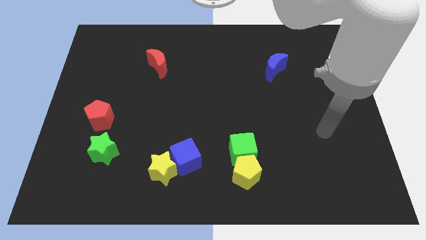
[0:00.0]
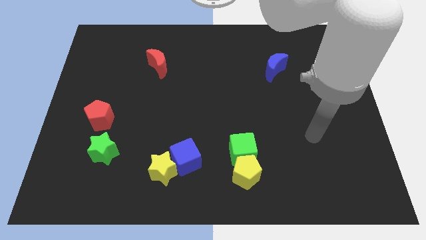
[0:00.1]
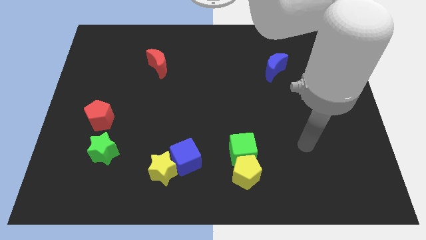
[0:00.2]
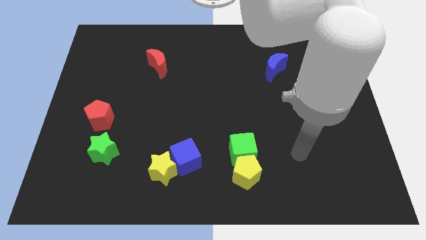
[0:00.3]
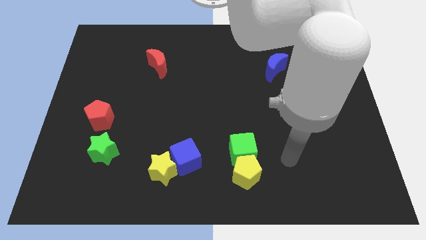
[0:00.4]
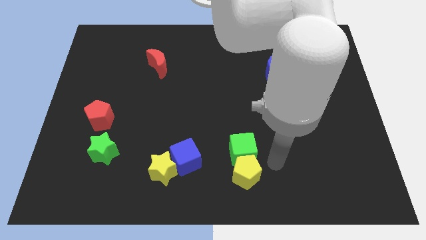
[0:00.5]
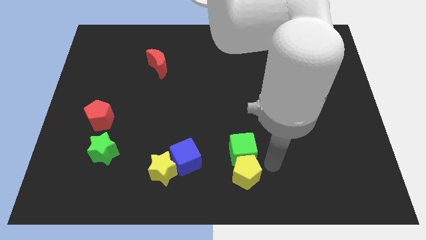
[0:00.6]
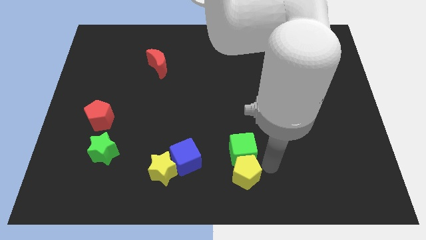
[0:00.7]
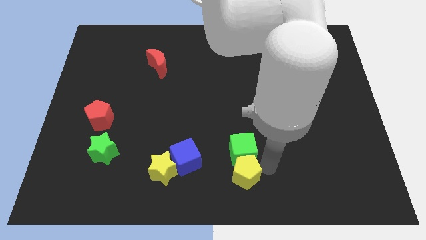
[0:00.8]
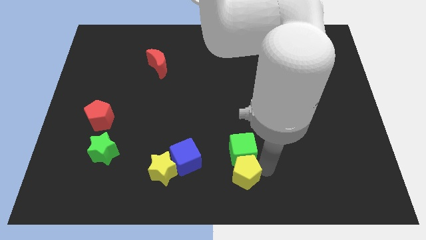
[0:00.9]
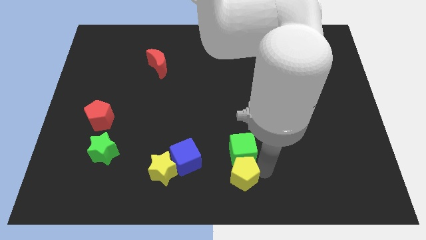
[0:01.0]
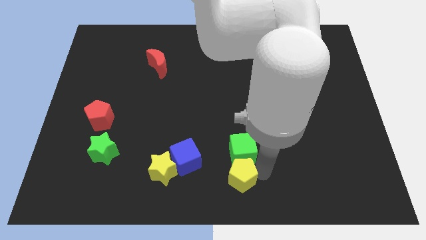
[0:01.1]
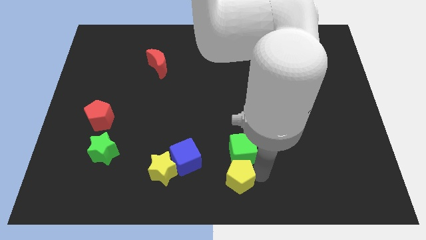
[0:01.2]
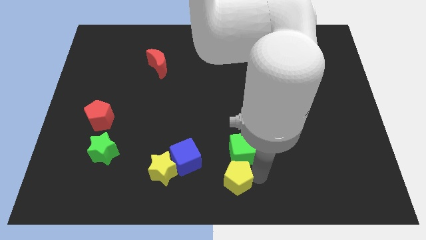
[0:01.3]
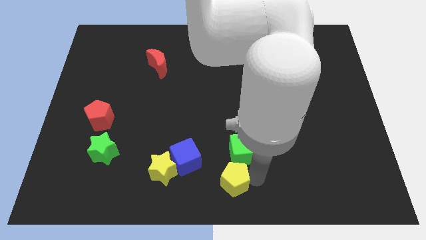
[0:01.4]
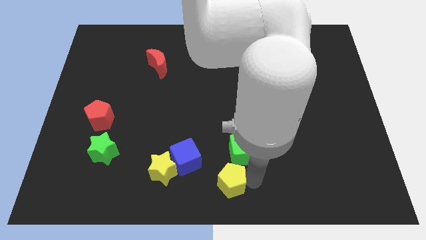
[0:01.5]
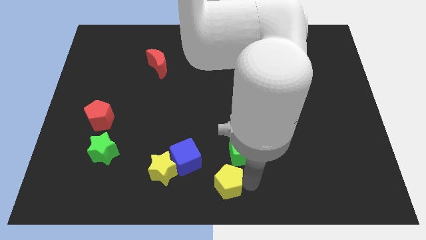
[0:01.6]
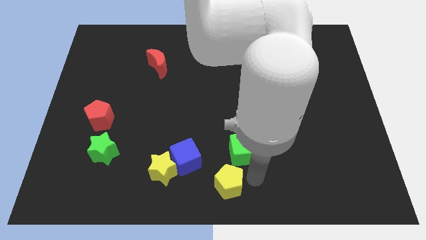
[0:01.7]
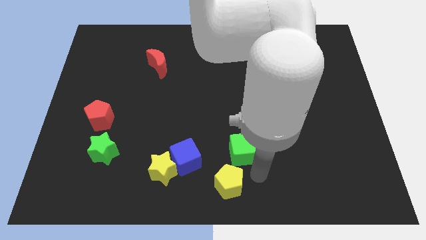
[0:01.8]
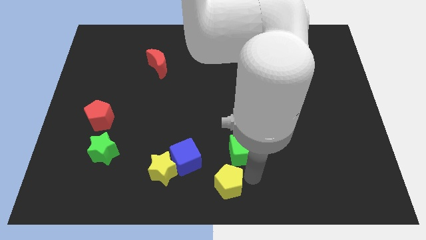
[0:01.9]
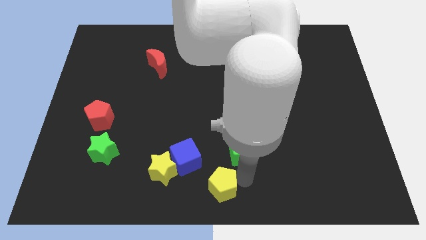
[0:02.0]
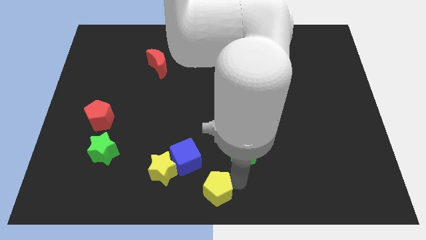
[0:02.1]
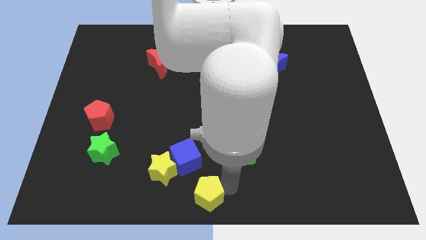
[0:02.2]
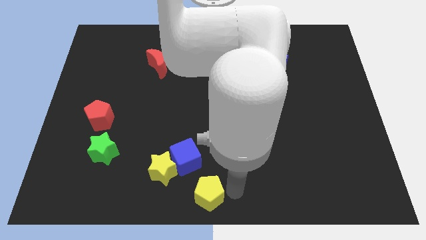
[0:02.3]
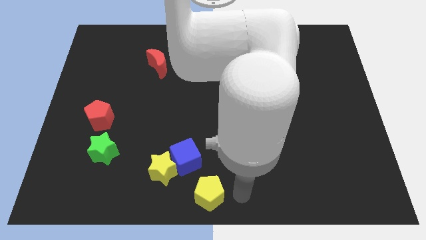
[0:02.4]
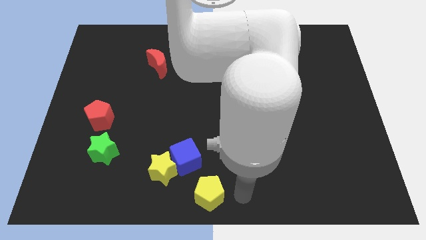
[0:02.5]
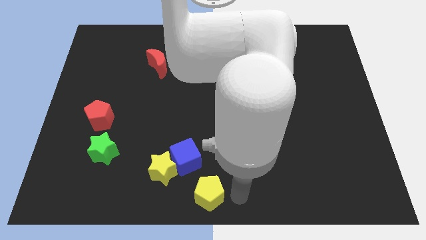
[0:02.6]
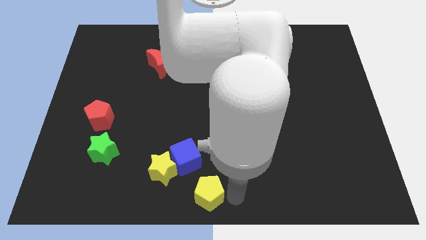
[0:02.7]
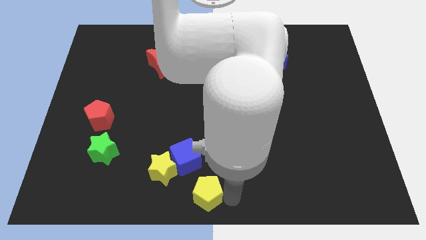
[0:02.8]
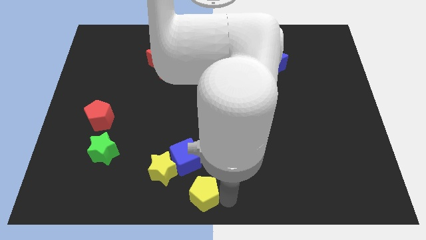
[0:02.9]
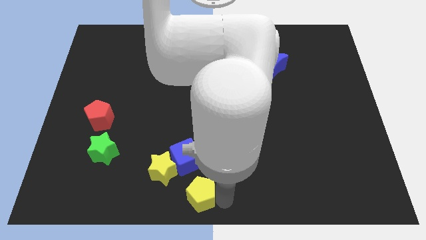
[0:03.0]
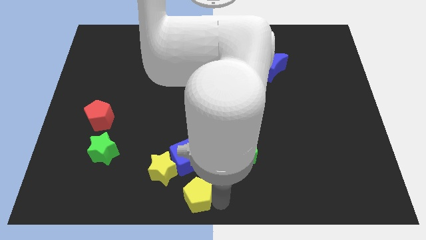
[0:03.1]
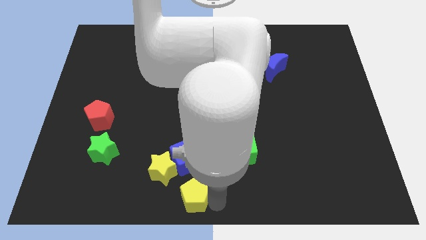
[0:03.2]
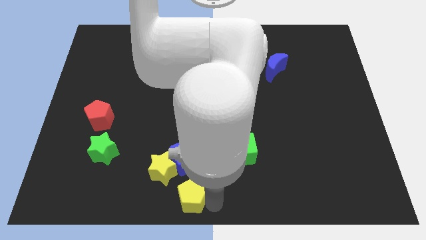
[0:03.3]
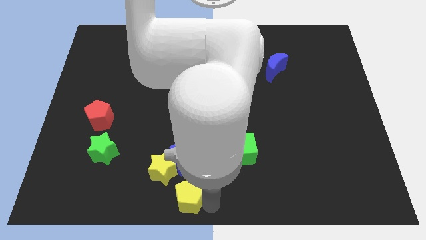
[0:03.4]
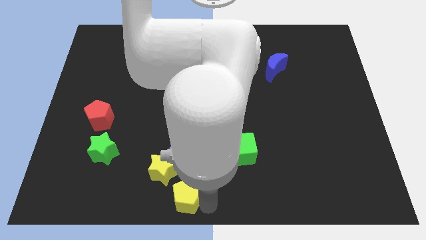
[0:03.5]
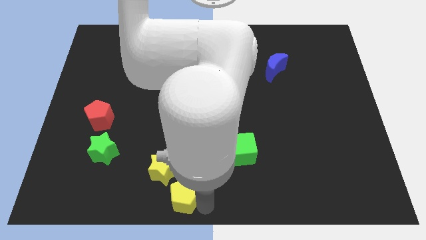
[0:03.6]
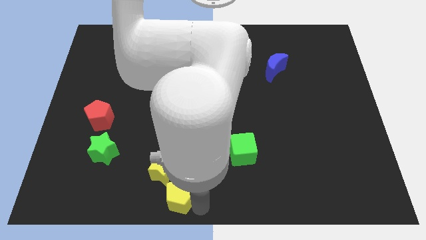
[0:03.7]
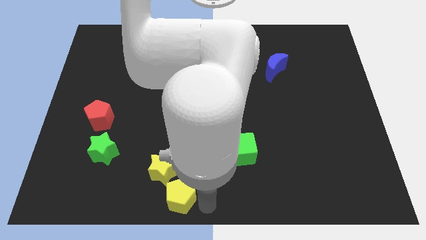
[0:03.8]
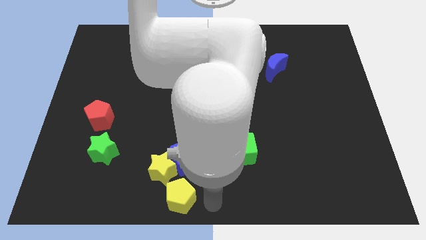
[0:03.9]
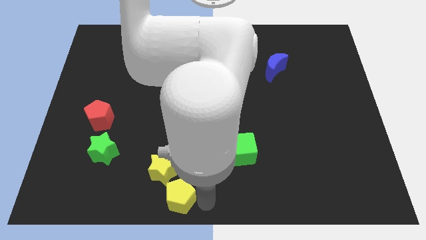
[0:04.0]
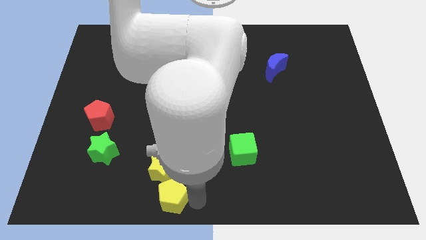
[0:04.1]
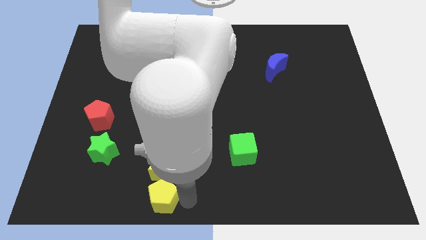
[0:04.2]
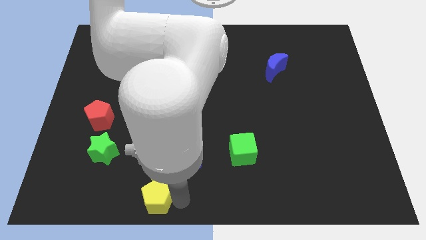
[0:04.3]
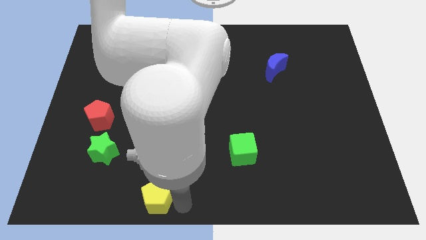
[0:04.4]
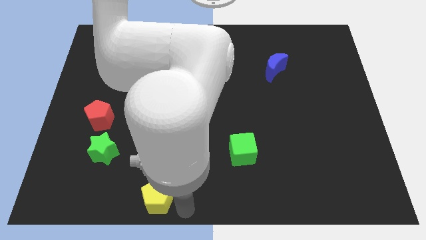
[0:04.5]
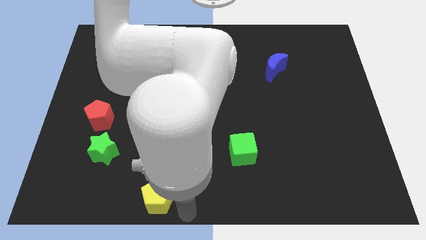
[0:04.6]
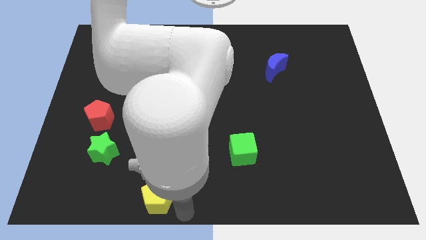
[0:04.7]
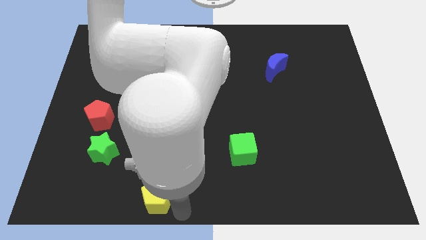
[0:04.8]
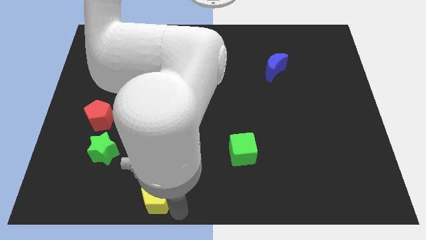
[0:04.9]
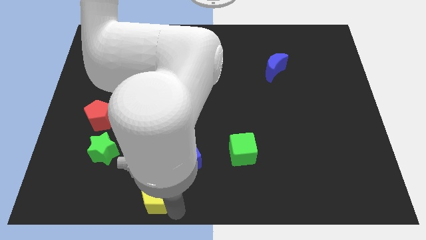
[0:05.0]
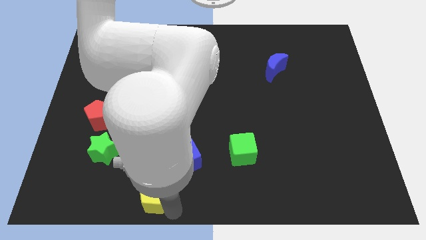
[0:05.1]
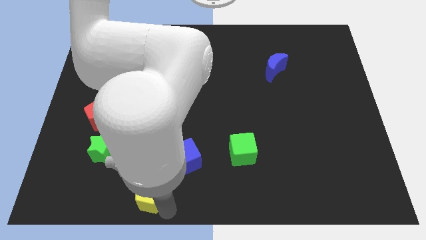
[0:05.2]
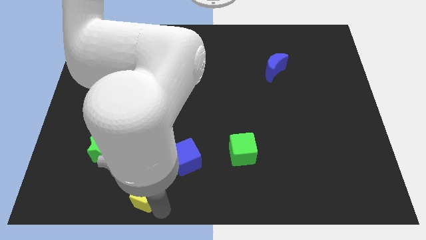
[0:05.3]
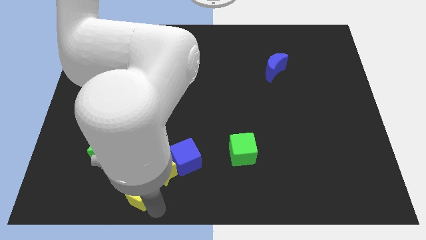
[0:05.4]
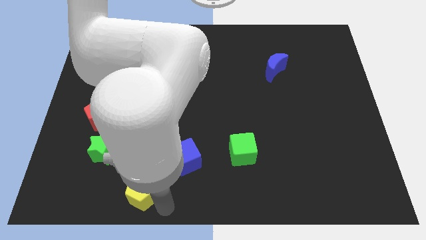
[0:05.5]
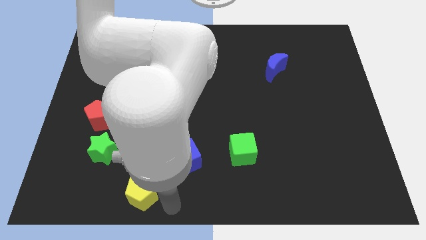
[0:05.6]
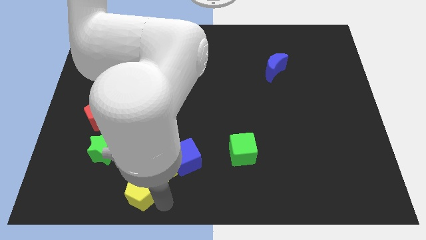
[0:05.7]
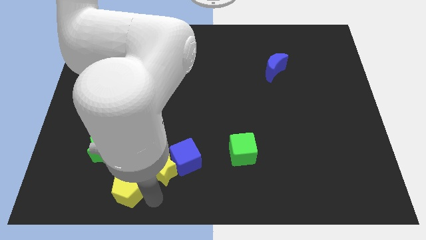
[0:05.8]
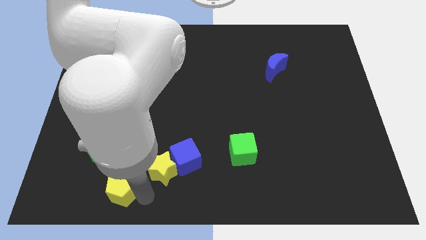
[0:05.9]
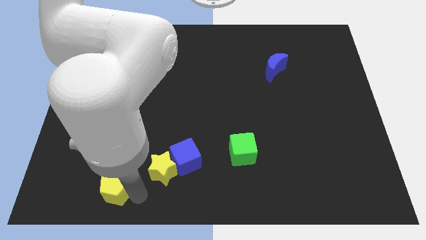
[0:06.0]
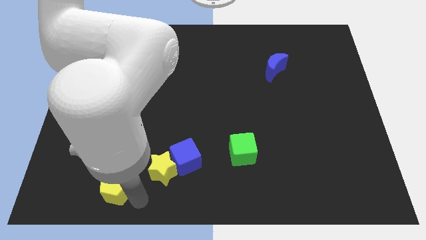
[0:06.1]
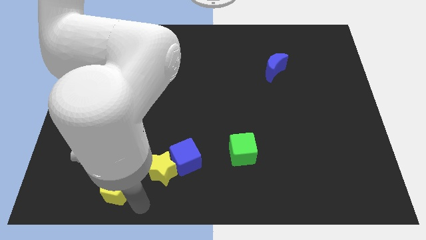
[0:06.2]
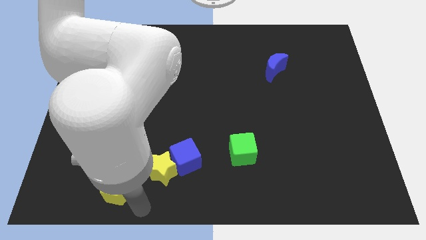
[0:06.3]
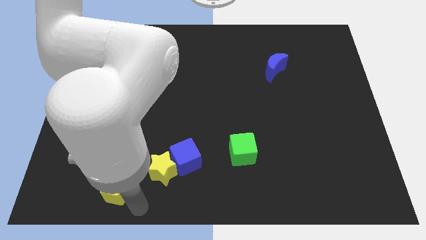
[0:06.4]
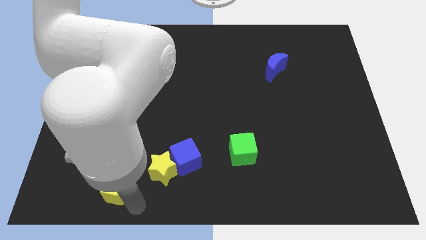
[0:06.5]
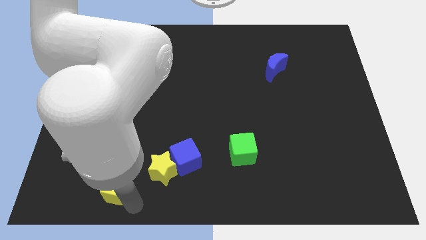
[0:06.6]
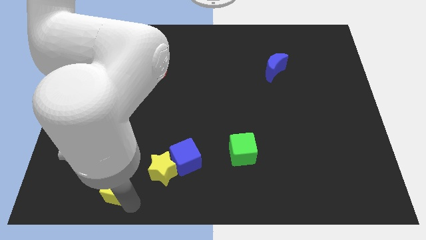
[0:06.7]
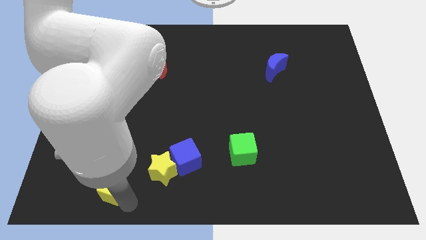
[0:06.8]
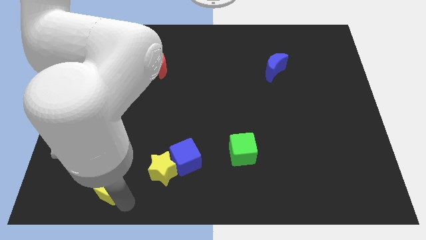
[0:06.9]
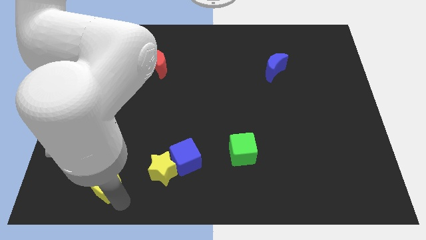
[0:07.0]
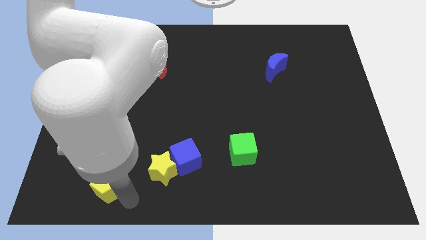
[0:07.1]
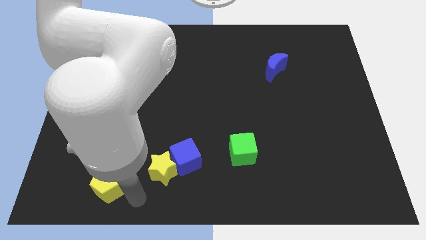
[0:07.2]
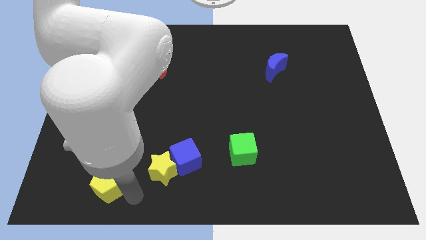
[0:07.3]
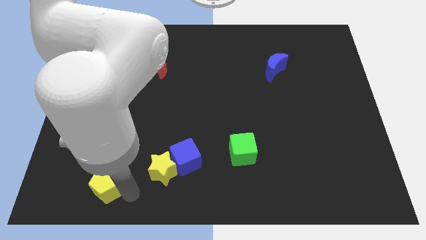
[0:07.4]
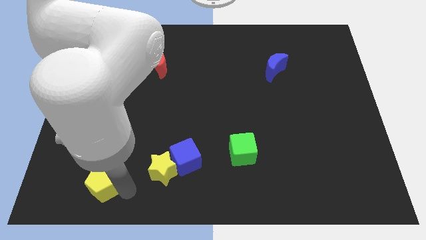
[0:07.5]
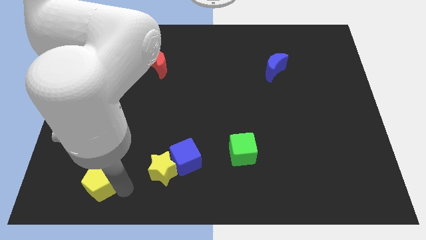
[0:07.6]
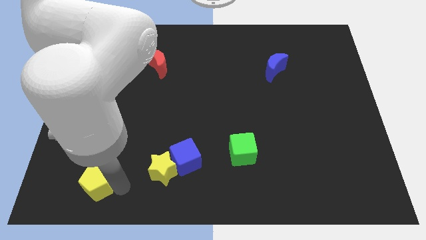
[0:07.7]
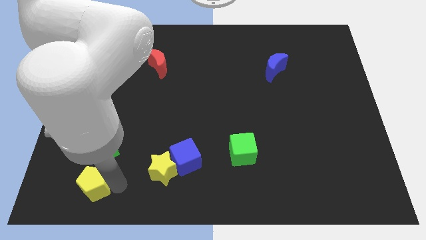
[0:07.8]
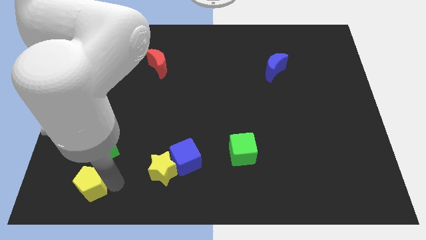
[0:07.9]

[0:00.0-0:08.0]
move the yellow pentagon to the bottom left of the green star
